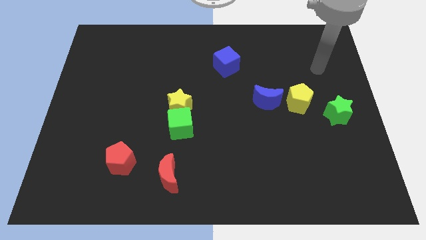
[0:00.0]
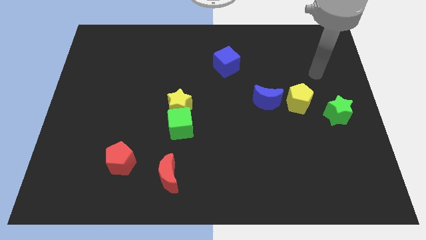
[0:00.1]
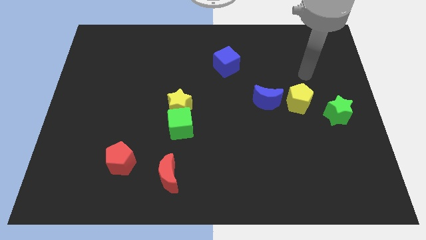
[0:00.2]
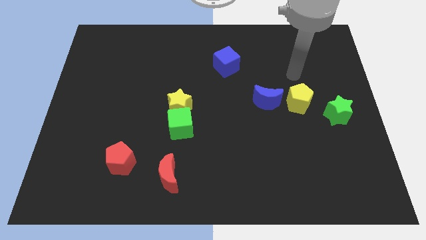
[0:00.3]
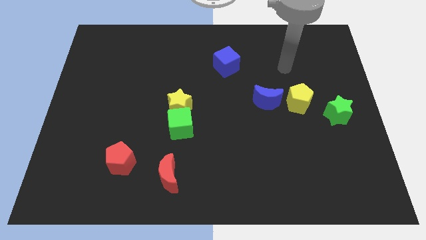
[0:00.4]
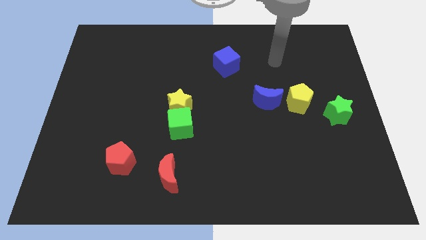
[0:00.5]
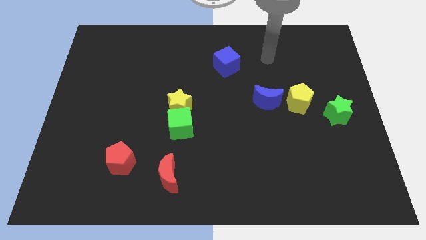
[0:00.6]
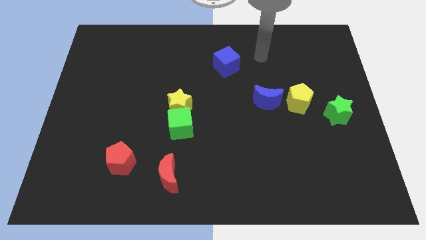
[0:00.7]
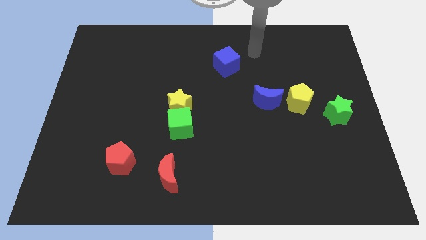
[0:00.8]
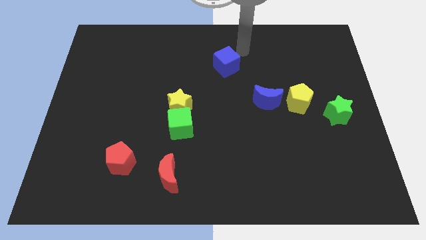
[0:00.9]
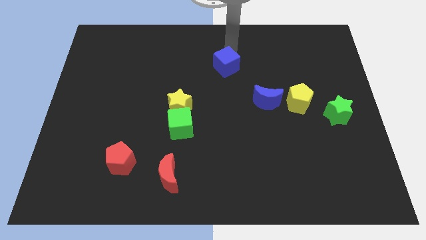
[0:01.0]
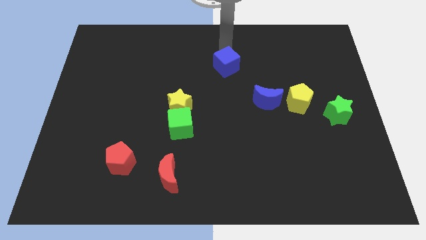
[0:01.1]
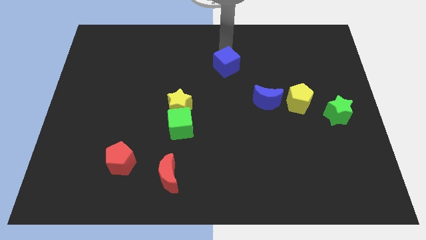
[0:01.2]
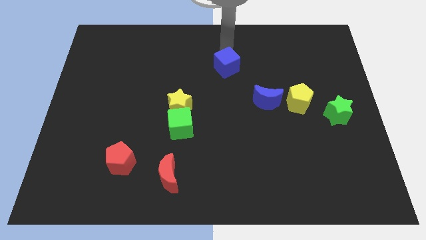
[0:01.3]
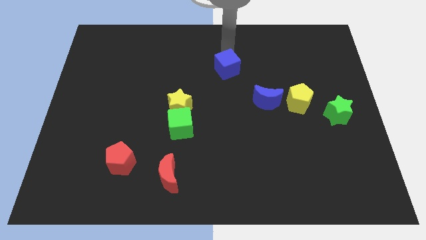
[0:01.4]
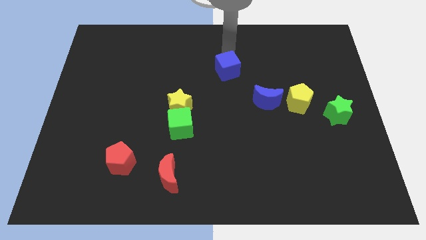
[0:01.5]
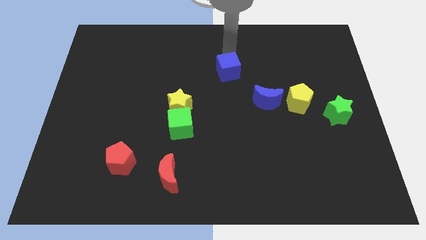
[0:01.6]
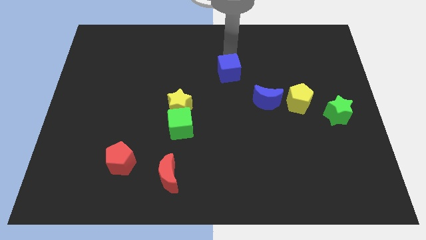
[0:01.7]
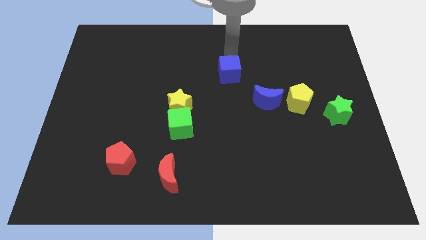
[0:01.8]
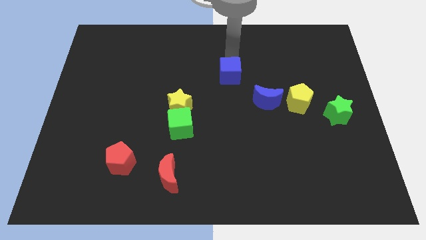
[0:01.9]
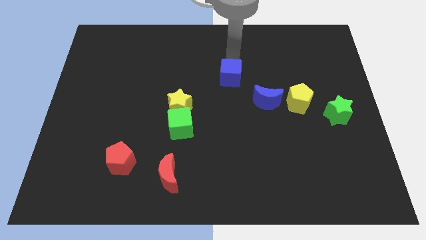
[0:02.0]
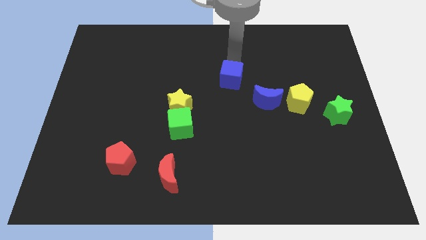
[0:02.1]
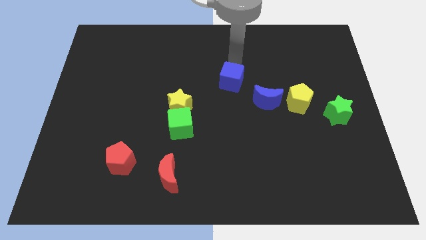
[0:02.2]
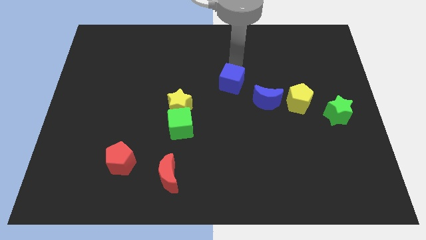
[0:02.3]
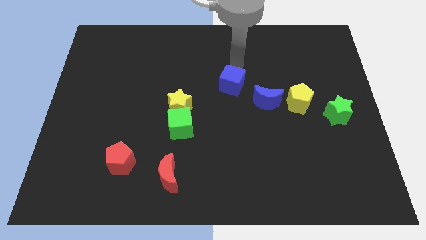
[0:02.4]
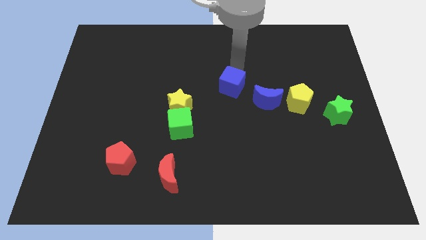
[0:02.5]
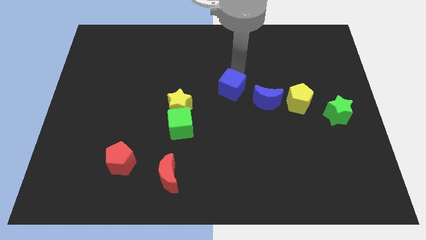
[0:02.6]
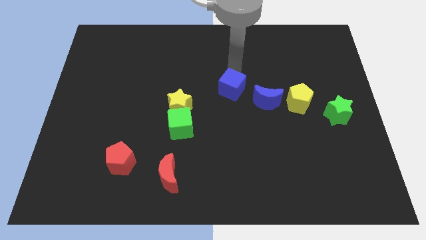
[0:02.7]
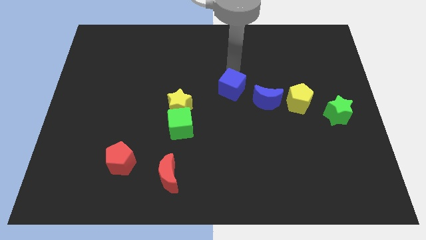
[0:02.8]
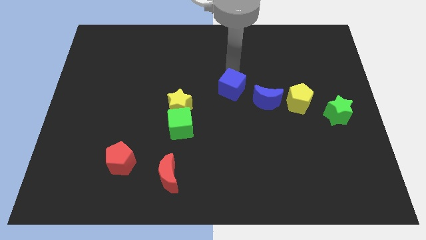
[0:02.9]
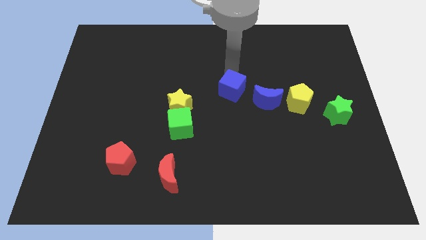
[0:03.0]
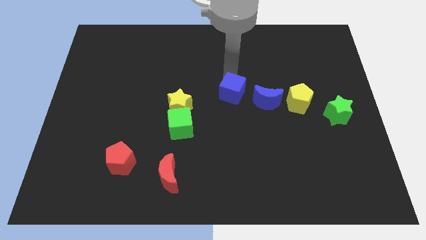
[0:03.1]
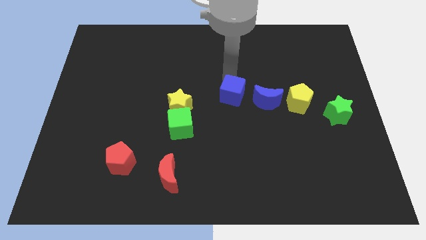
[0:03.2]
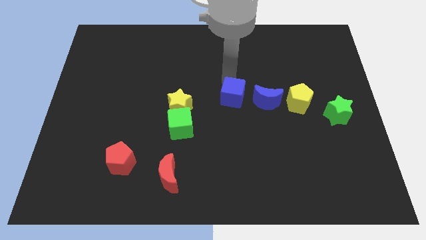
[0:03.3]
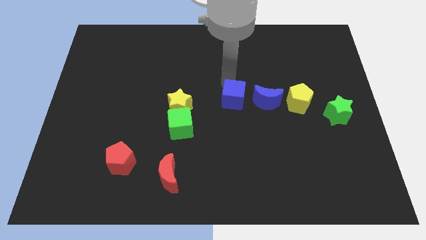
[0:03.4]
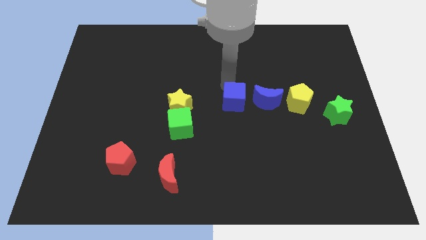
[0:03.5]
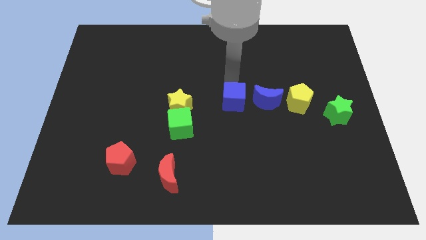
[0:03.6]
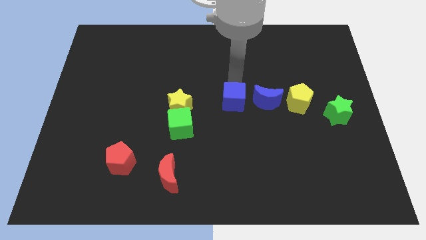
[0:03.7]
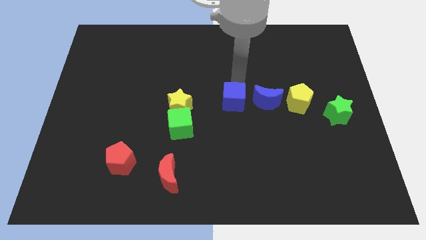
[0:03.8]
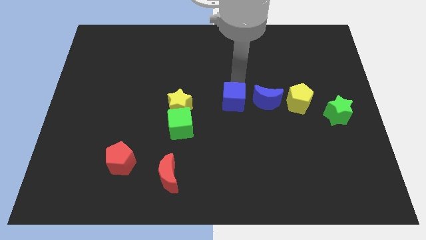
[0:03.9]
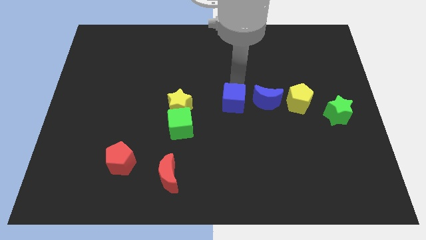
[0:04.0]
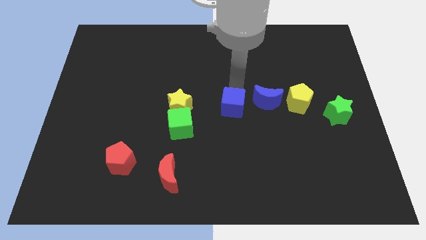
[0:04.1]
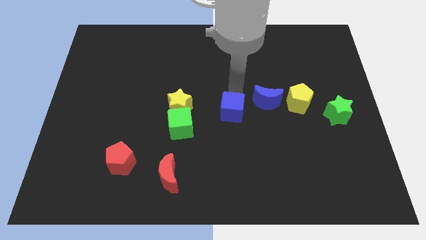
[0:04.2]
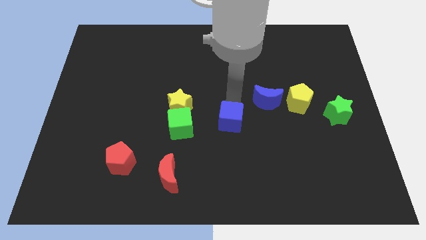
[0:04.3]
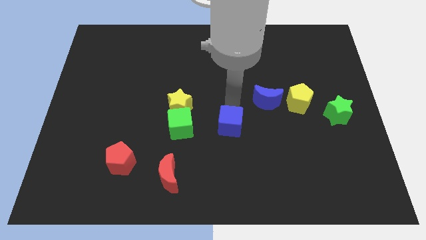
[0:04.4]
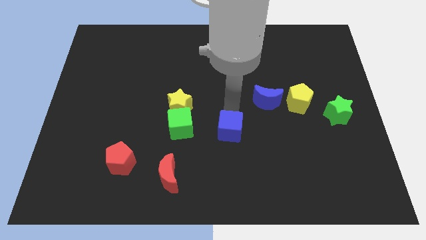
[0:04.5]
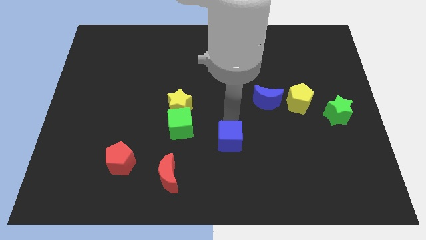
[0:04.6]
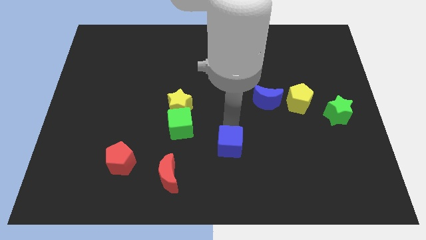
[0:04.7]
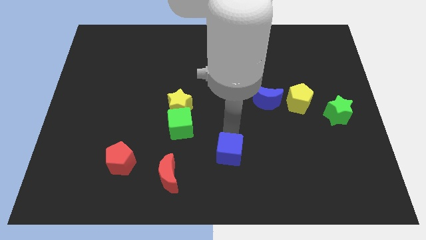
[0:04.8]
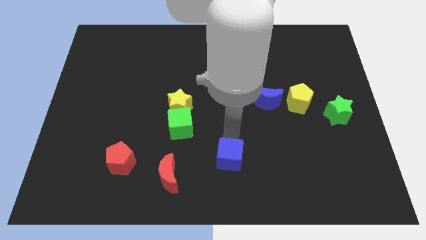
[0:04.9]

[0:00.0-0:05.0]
put the blue cube to the bottom

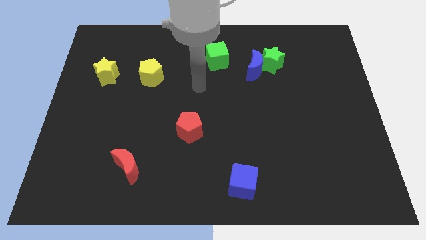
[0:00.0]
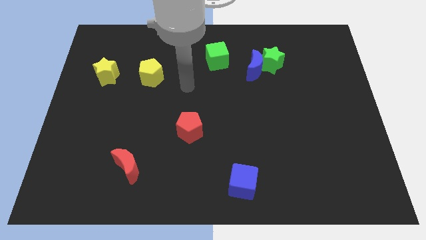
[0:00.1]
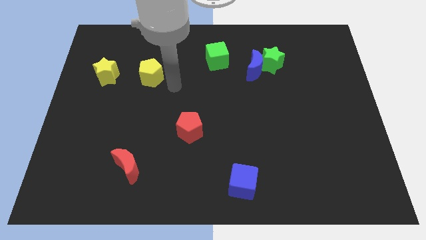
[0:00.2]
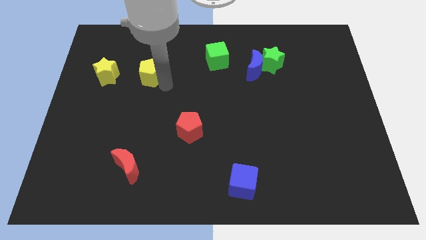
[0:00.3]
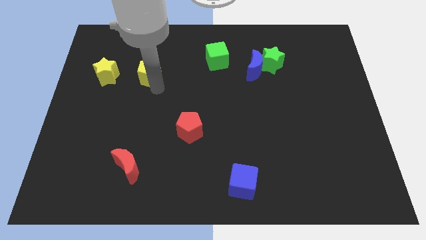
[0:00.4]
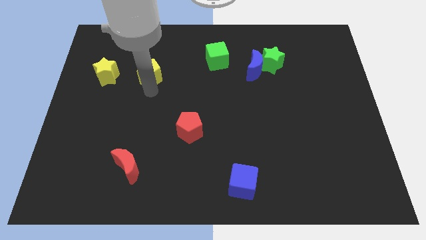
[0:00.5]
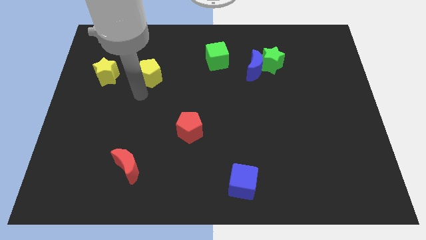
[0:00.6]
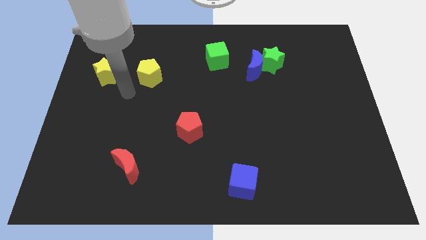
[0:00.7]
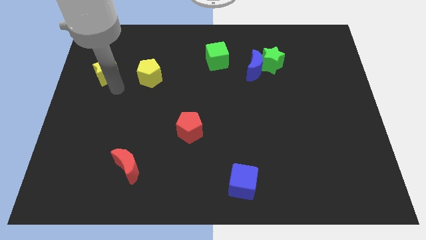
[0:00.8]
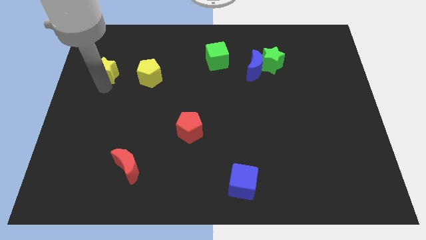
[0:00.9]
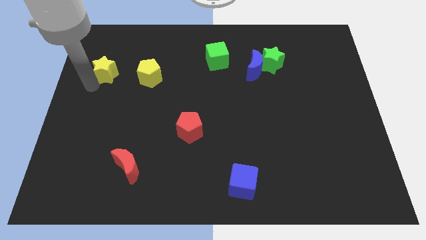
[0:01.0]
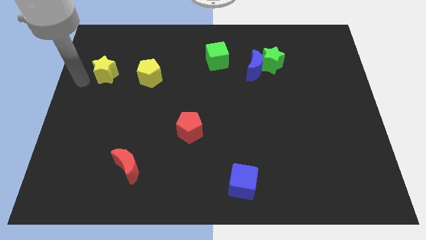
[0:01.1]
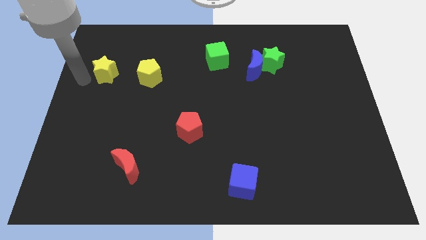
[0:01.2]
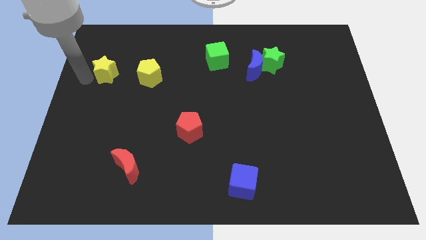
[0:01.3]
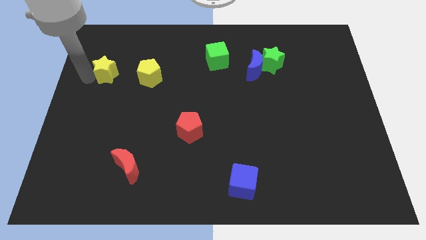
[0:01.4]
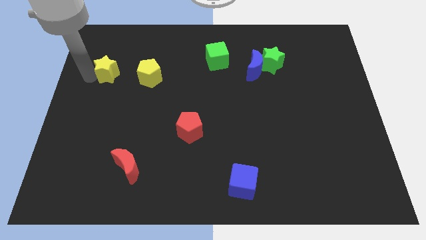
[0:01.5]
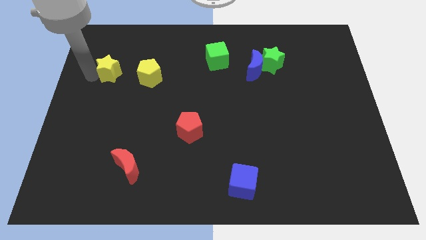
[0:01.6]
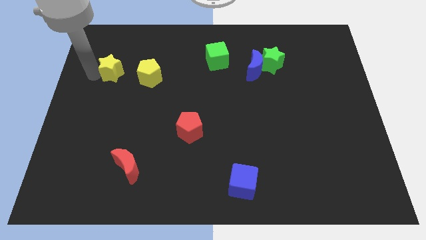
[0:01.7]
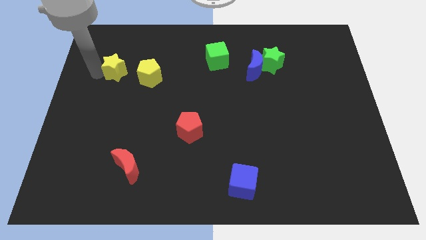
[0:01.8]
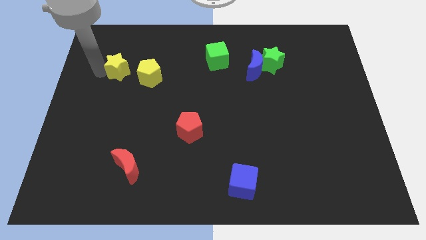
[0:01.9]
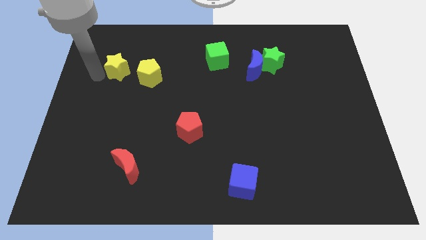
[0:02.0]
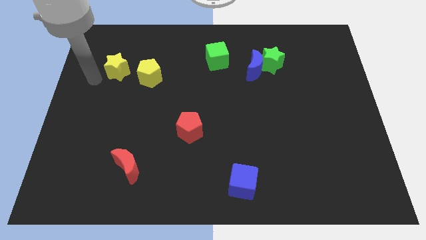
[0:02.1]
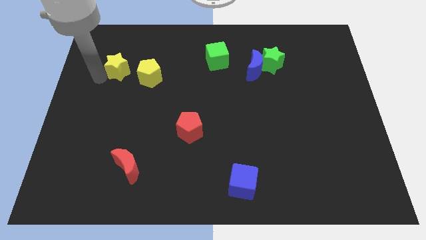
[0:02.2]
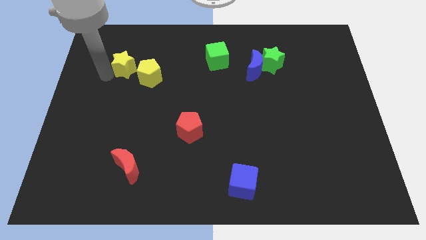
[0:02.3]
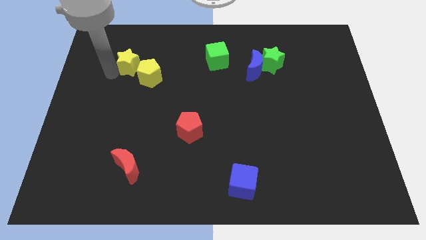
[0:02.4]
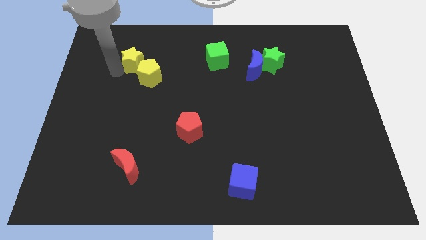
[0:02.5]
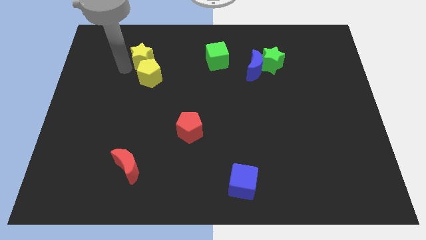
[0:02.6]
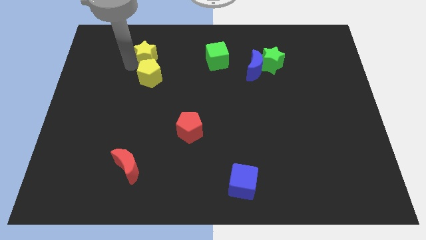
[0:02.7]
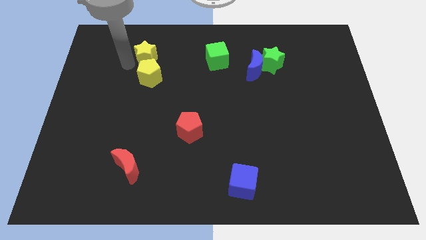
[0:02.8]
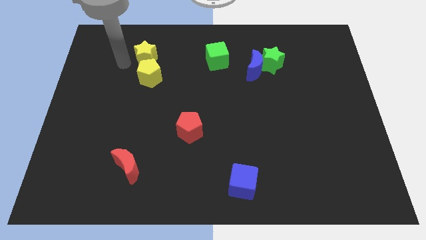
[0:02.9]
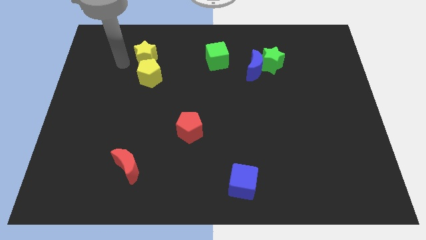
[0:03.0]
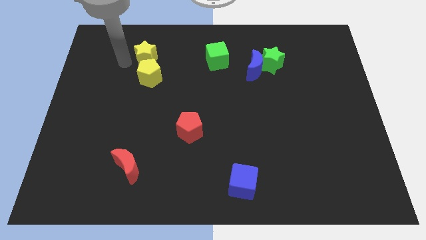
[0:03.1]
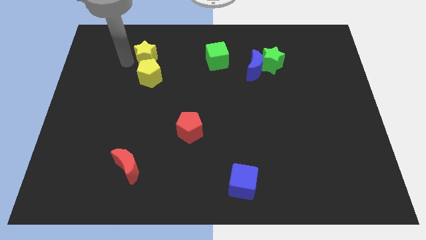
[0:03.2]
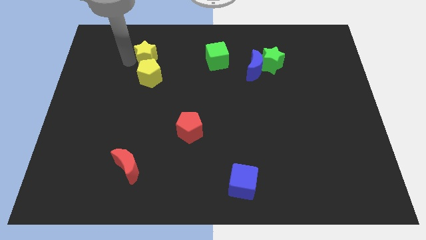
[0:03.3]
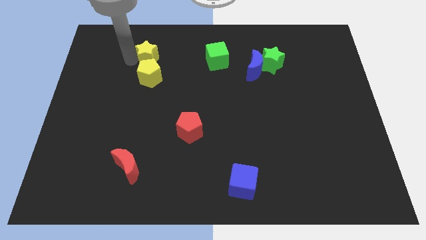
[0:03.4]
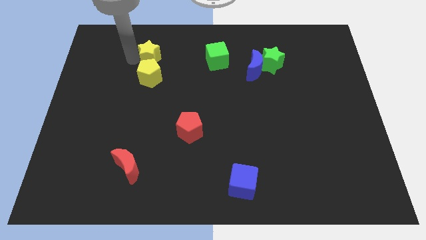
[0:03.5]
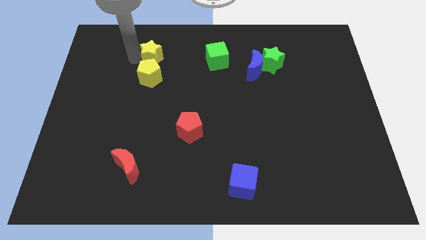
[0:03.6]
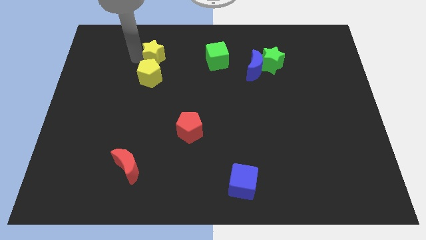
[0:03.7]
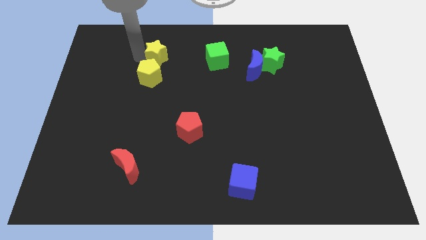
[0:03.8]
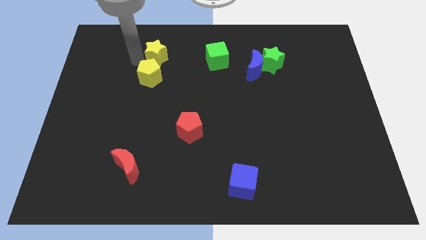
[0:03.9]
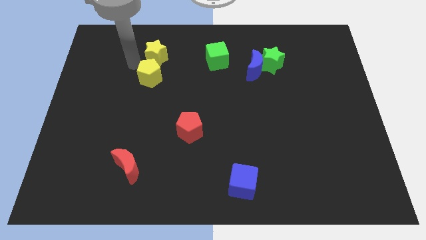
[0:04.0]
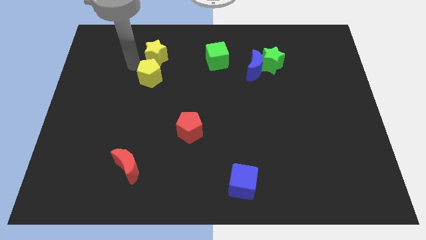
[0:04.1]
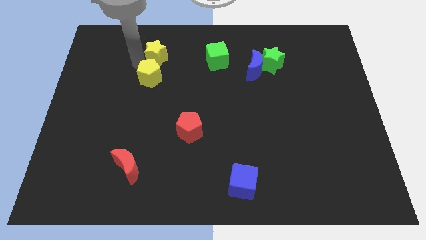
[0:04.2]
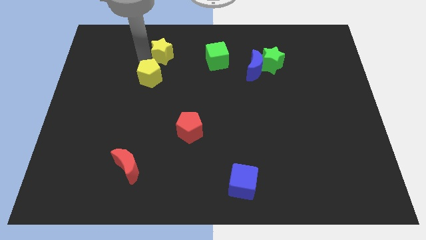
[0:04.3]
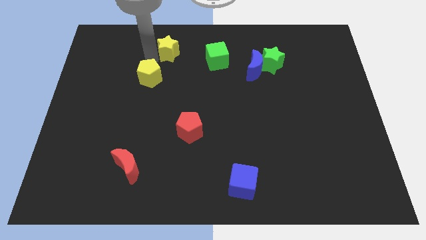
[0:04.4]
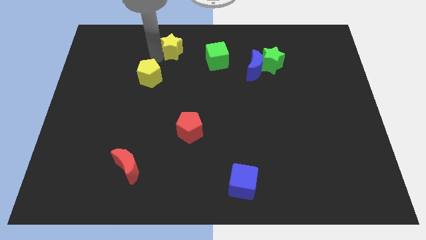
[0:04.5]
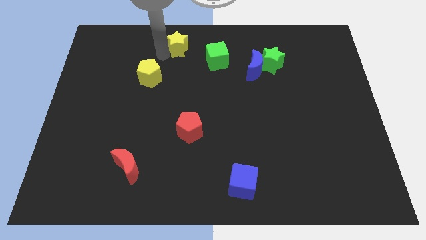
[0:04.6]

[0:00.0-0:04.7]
put the yellow star to the top
